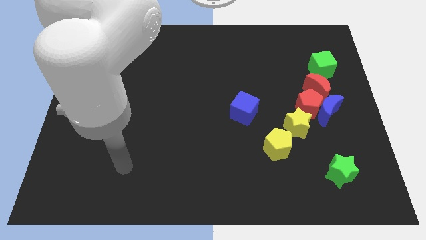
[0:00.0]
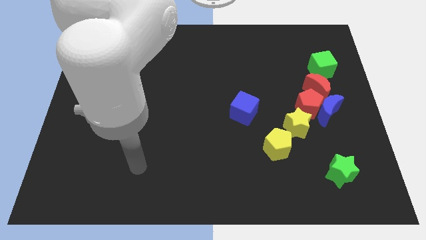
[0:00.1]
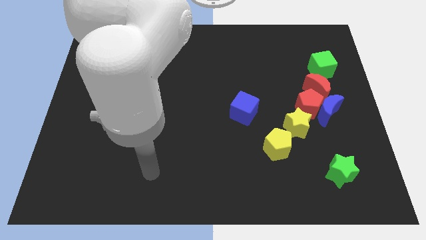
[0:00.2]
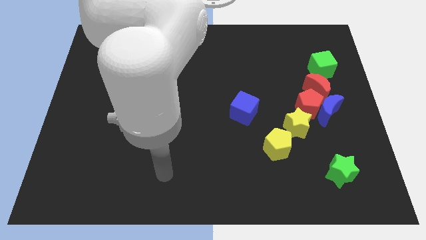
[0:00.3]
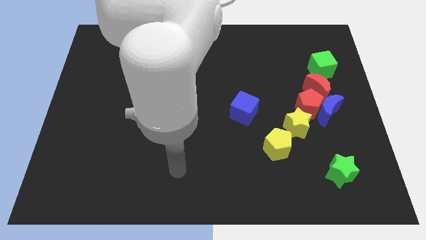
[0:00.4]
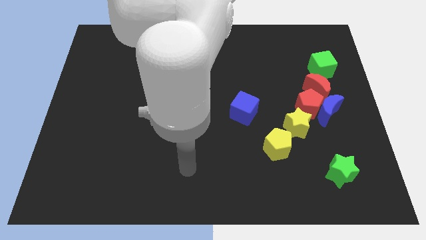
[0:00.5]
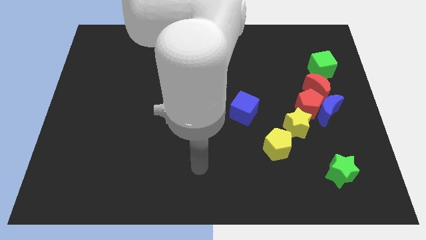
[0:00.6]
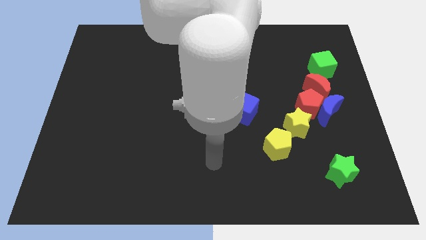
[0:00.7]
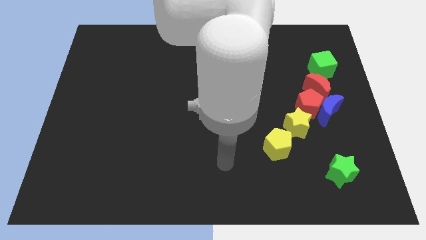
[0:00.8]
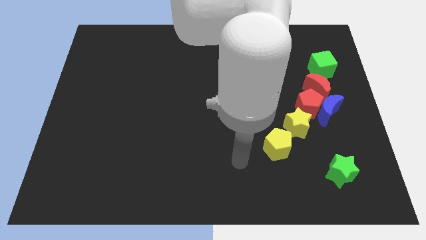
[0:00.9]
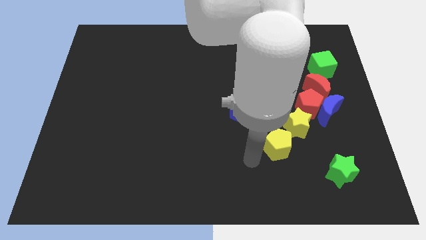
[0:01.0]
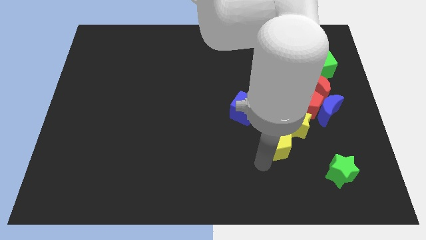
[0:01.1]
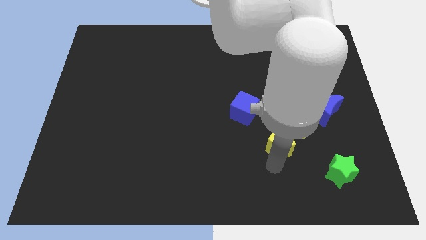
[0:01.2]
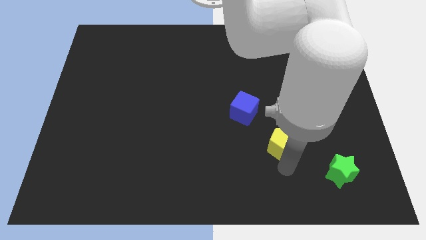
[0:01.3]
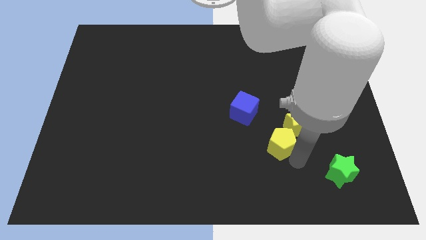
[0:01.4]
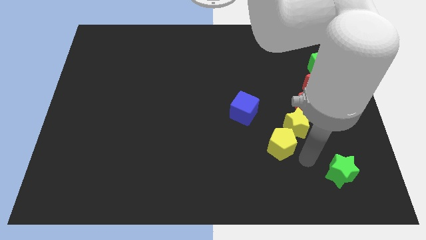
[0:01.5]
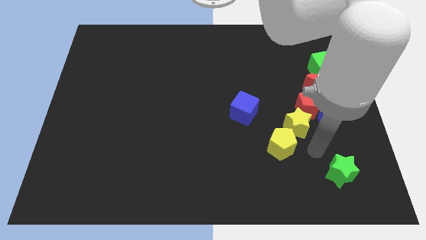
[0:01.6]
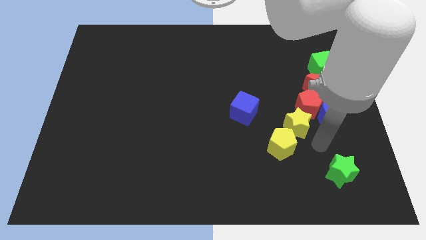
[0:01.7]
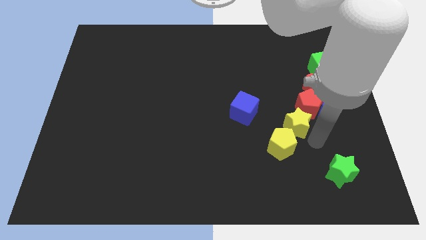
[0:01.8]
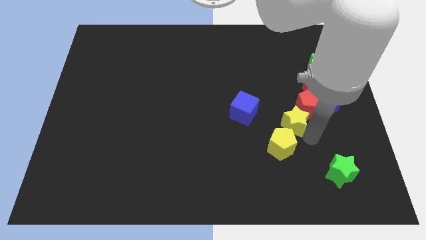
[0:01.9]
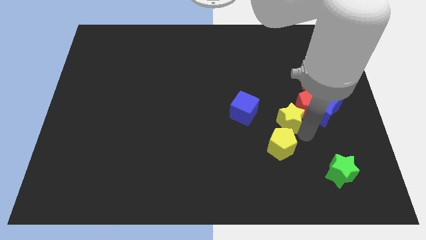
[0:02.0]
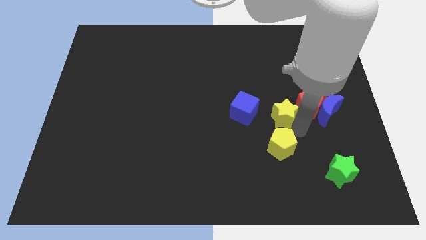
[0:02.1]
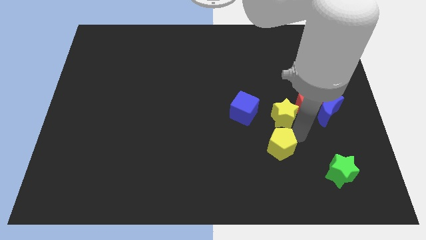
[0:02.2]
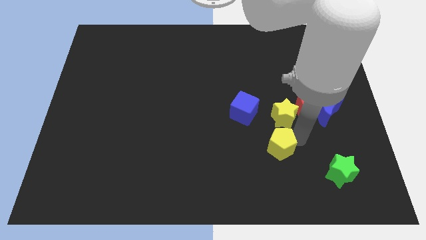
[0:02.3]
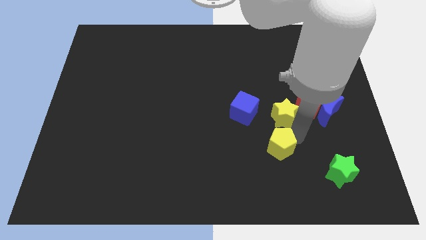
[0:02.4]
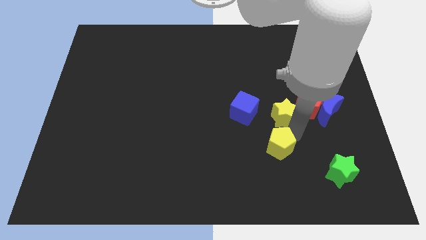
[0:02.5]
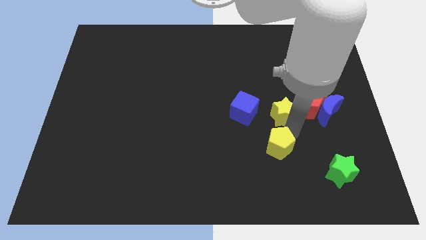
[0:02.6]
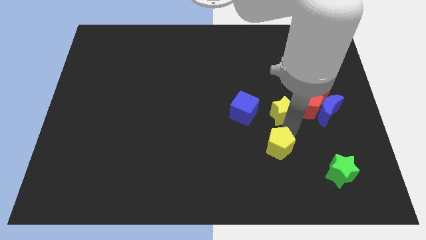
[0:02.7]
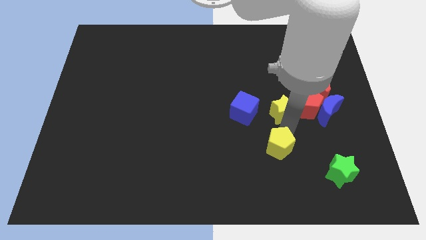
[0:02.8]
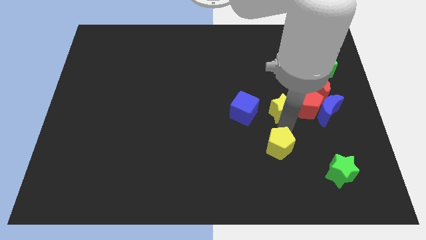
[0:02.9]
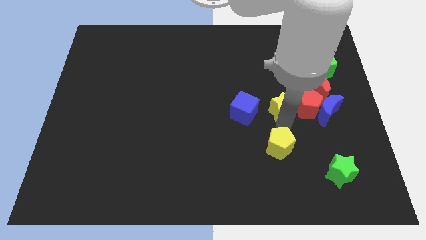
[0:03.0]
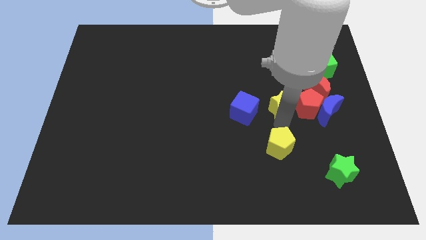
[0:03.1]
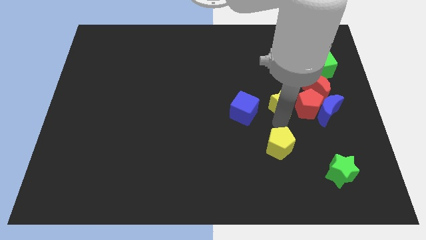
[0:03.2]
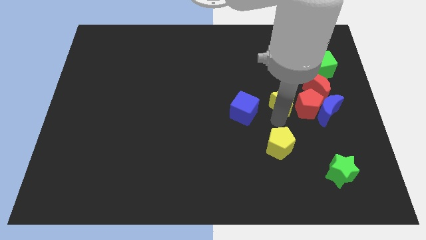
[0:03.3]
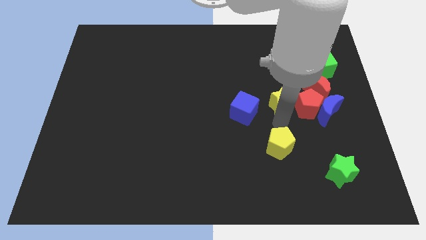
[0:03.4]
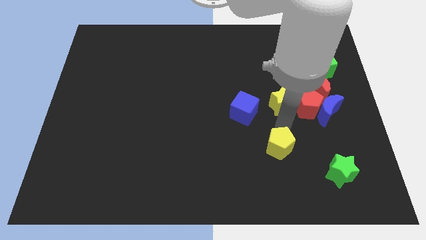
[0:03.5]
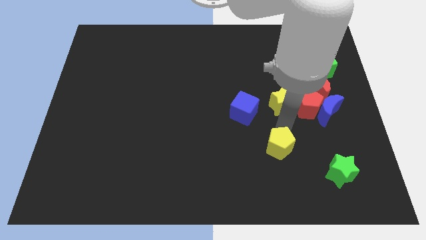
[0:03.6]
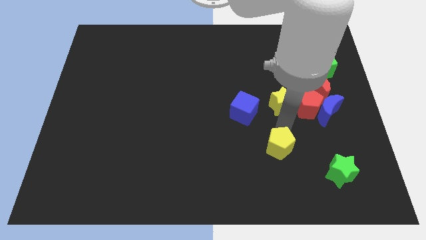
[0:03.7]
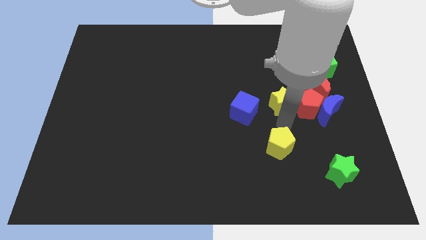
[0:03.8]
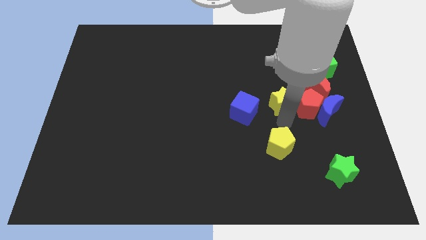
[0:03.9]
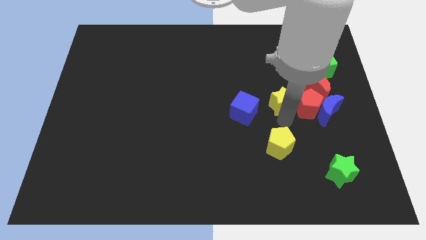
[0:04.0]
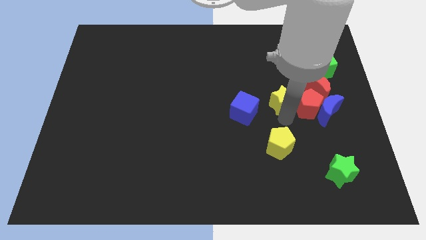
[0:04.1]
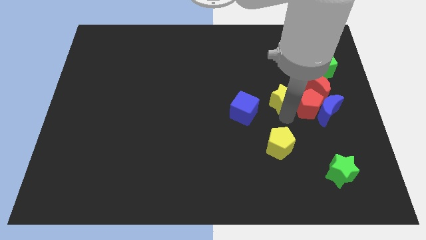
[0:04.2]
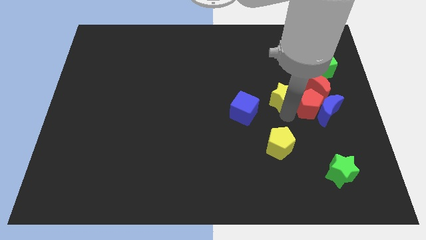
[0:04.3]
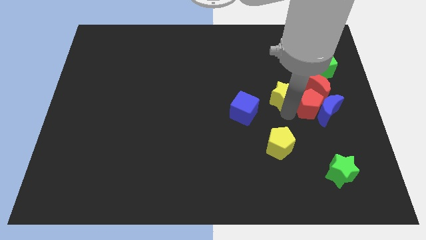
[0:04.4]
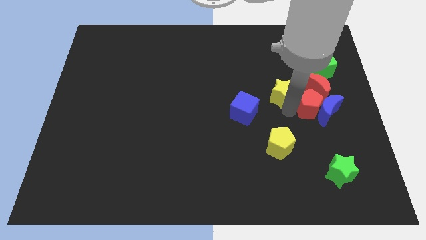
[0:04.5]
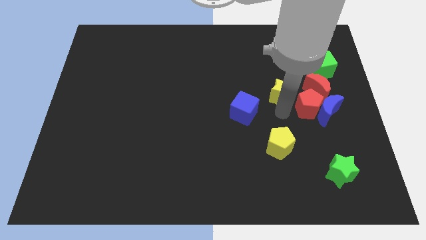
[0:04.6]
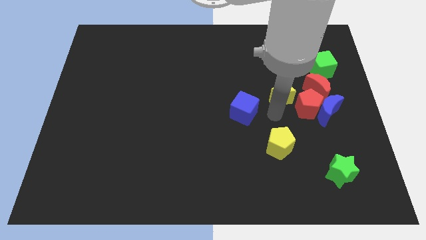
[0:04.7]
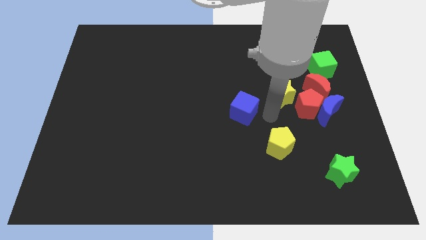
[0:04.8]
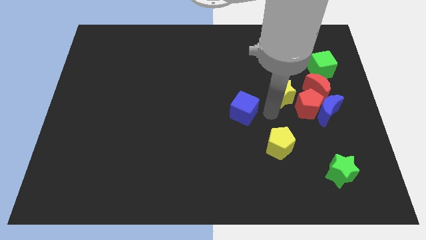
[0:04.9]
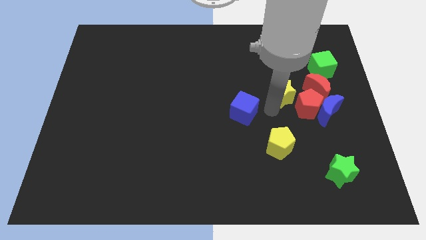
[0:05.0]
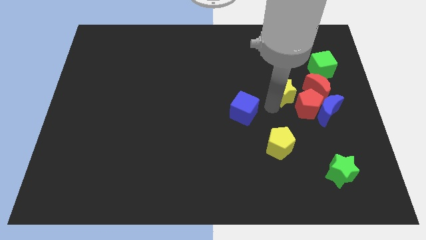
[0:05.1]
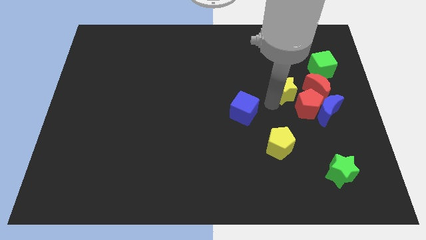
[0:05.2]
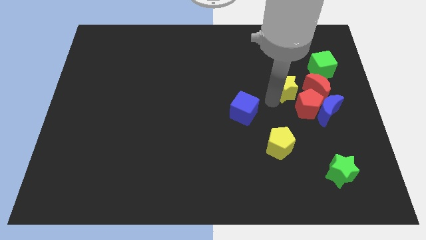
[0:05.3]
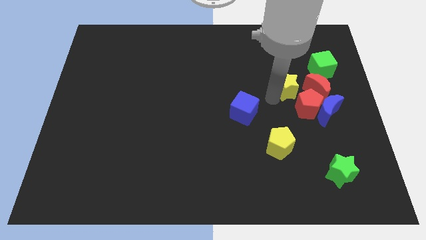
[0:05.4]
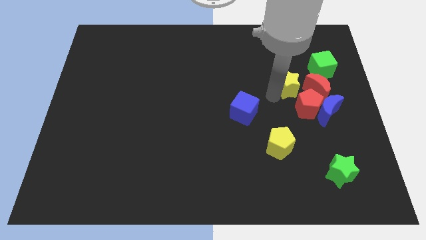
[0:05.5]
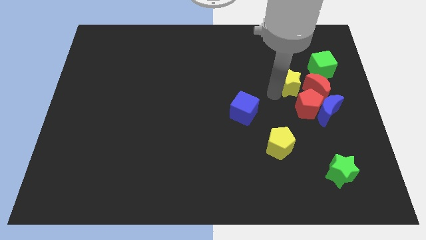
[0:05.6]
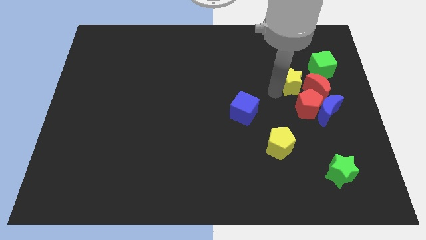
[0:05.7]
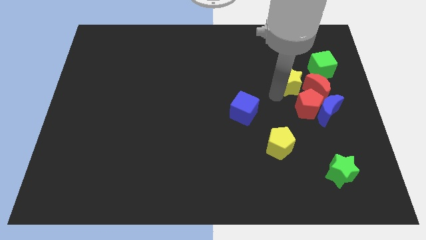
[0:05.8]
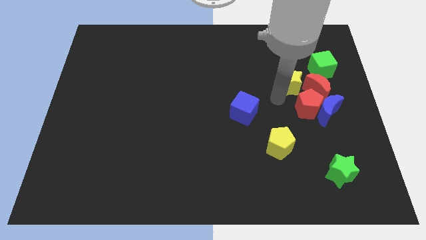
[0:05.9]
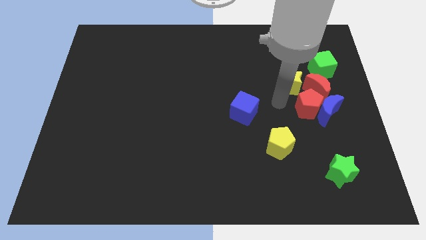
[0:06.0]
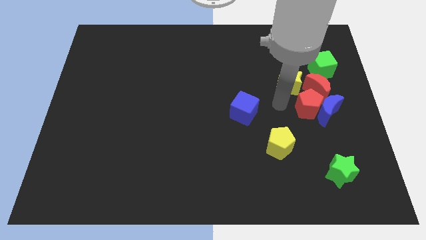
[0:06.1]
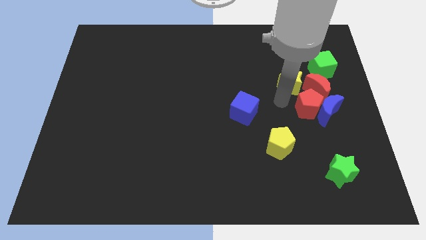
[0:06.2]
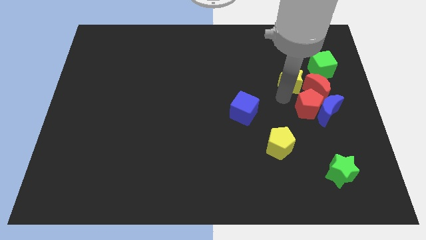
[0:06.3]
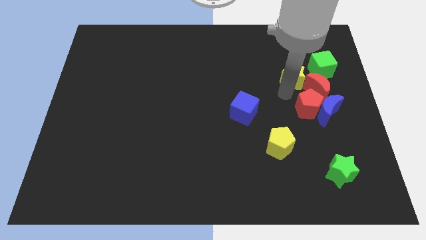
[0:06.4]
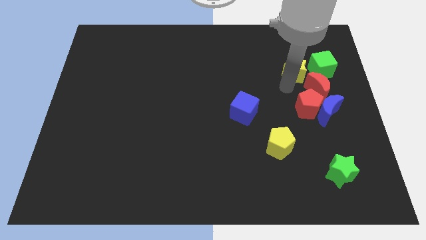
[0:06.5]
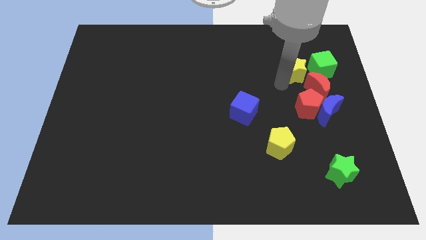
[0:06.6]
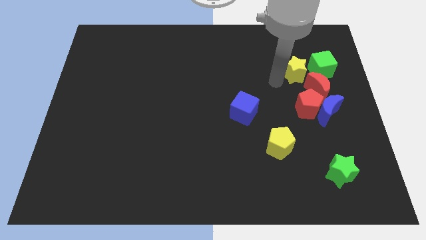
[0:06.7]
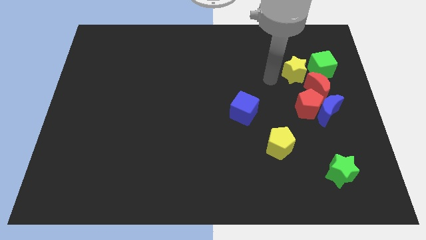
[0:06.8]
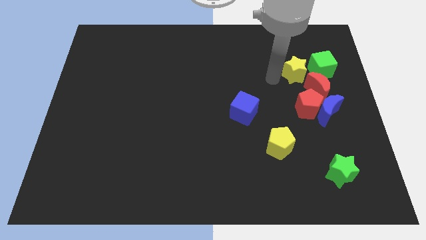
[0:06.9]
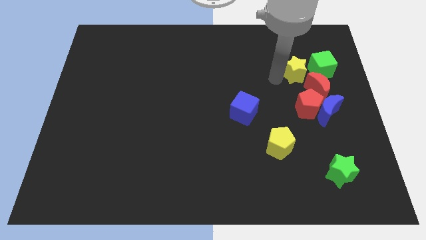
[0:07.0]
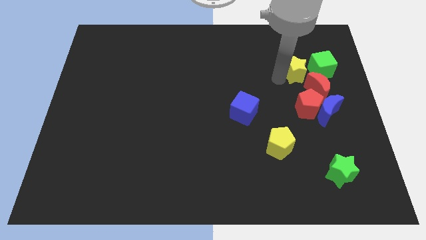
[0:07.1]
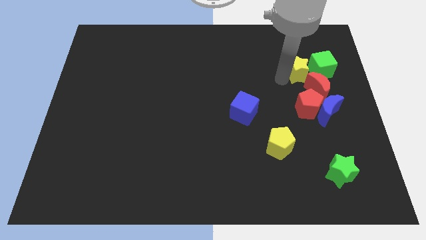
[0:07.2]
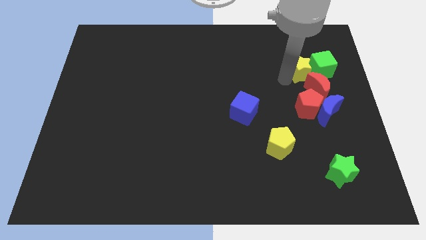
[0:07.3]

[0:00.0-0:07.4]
slide the yellow star to the green cube
